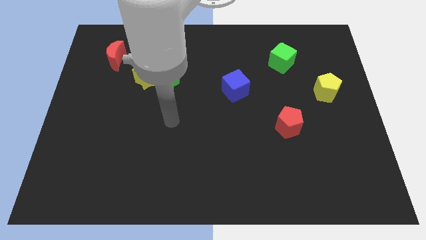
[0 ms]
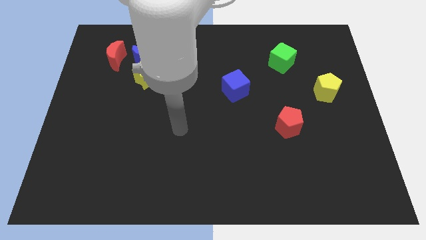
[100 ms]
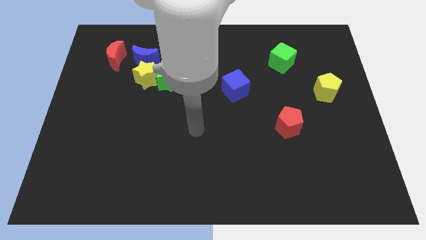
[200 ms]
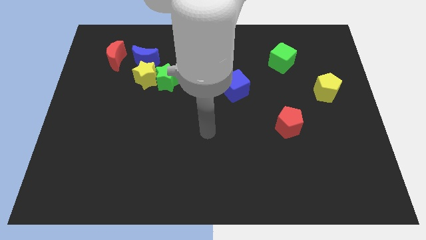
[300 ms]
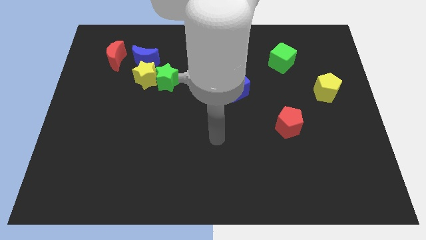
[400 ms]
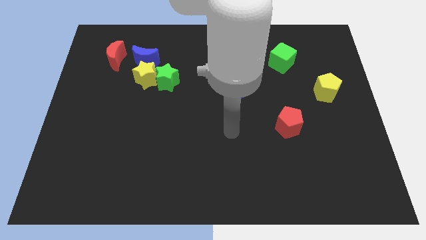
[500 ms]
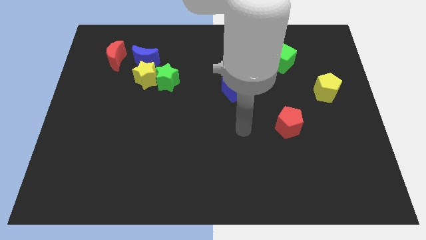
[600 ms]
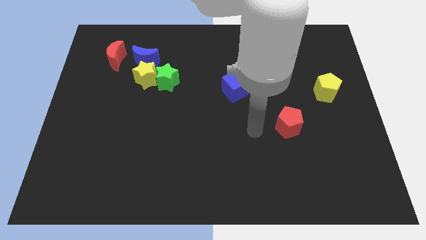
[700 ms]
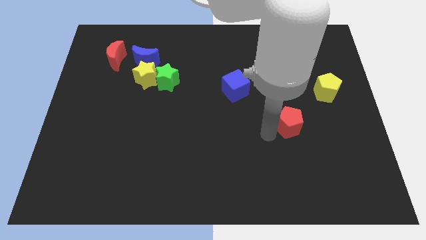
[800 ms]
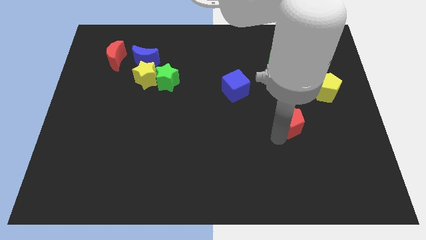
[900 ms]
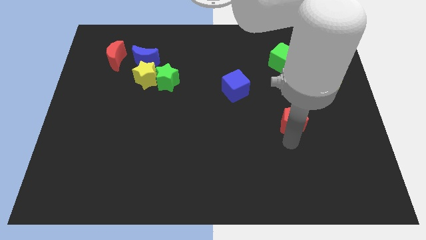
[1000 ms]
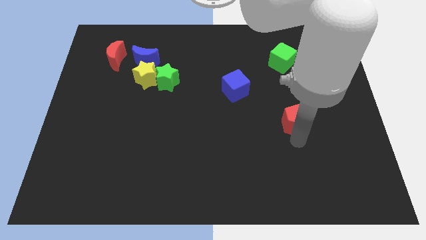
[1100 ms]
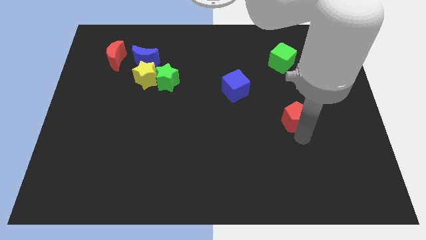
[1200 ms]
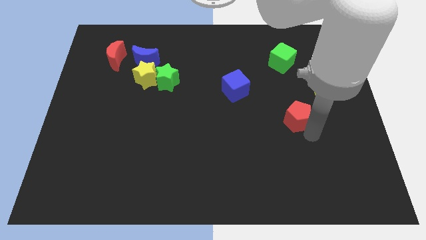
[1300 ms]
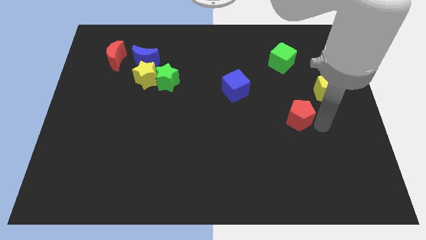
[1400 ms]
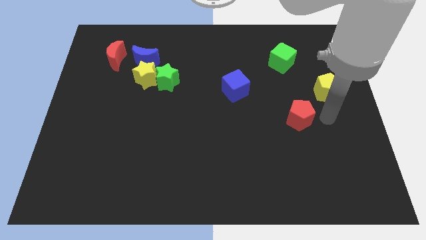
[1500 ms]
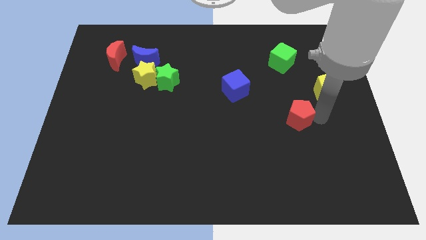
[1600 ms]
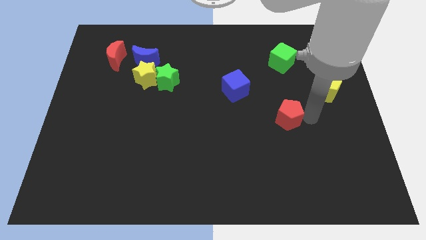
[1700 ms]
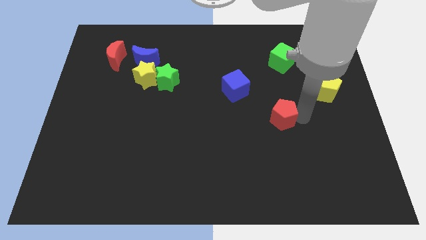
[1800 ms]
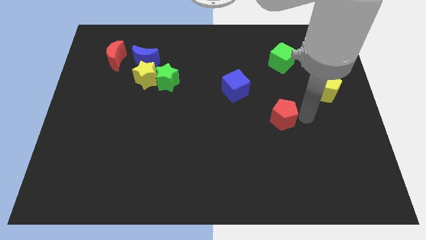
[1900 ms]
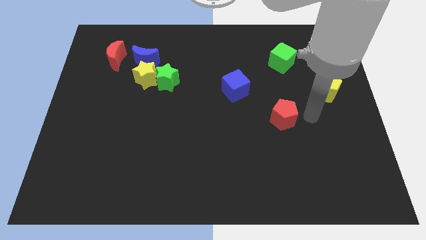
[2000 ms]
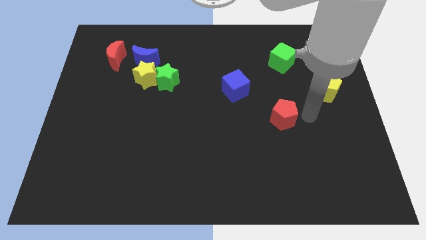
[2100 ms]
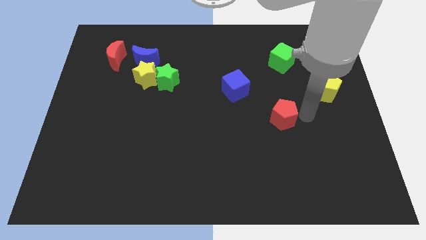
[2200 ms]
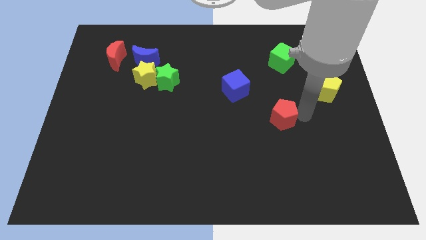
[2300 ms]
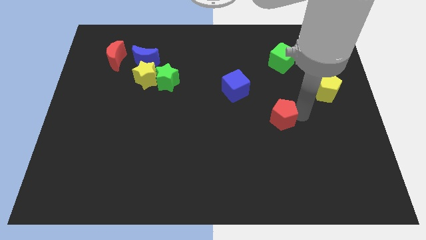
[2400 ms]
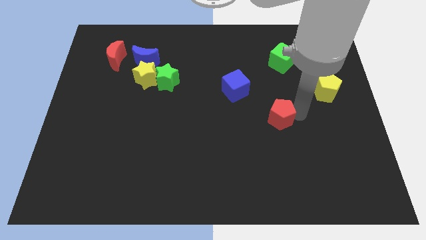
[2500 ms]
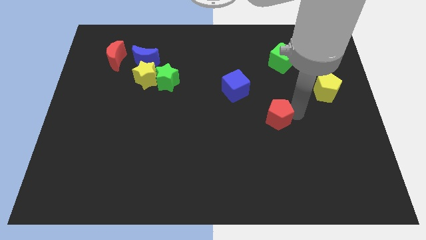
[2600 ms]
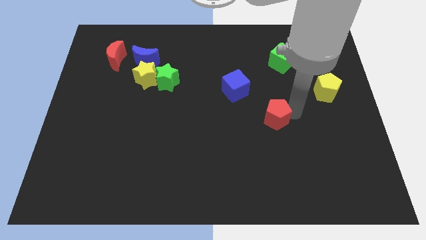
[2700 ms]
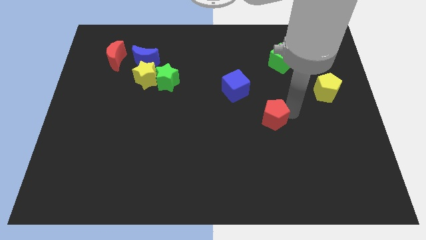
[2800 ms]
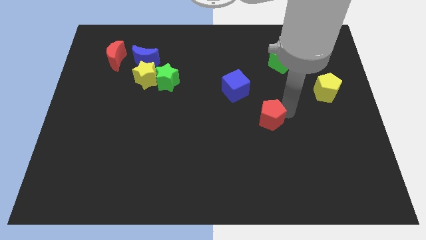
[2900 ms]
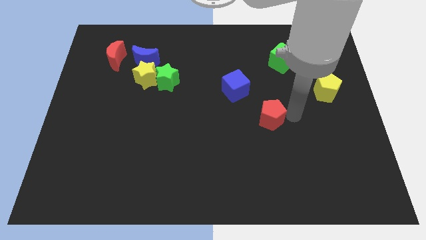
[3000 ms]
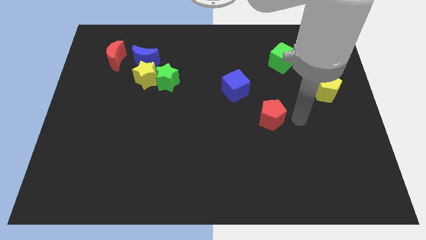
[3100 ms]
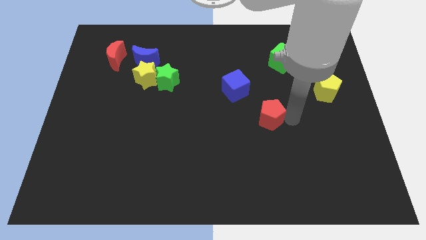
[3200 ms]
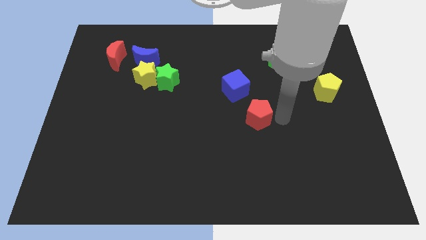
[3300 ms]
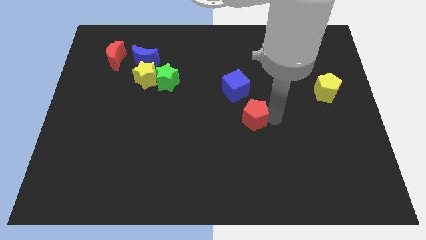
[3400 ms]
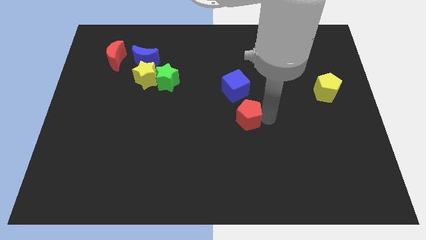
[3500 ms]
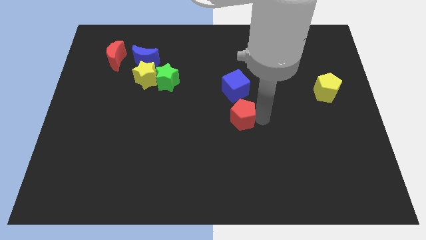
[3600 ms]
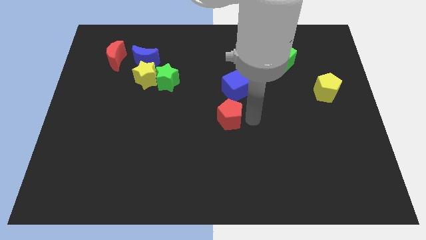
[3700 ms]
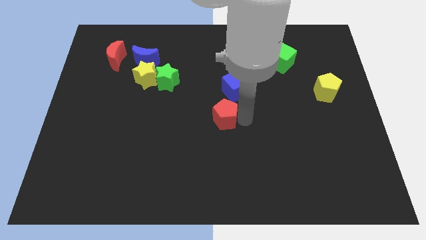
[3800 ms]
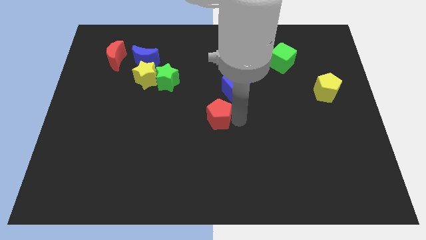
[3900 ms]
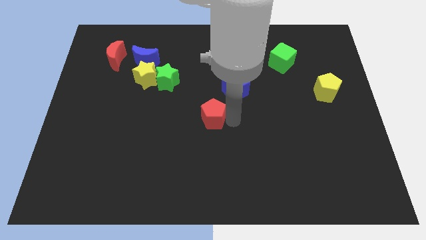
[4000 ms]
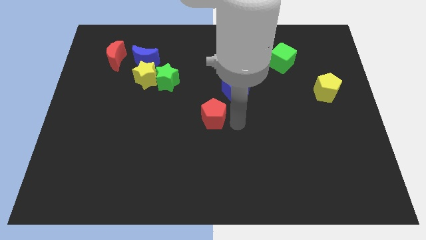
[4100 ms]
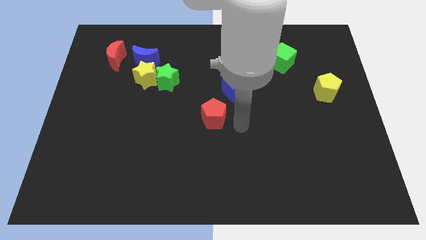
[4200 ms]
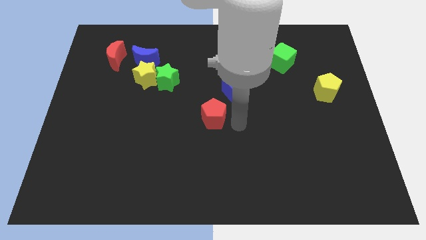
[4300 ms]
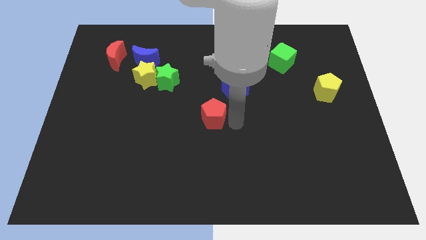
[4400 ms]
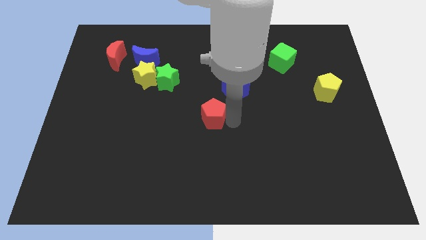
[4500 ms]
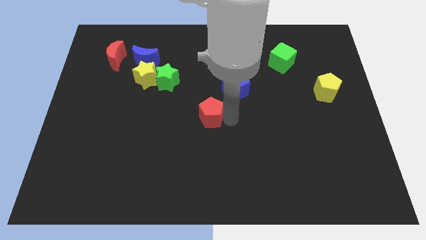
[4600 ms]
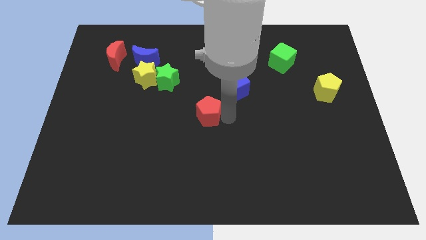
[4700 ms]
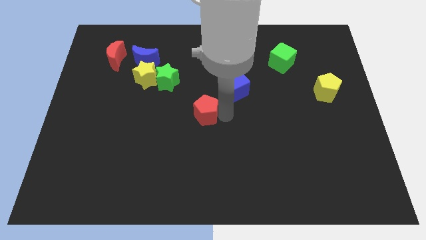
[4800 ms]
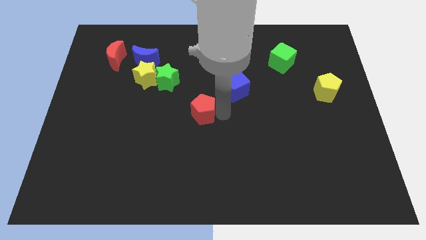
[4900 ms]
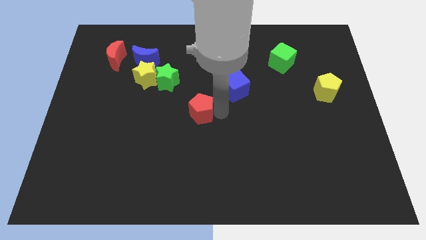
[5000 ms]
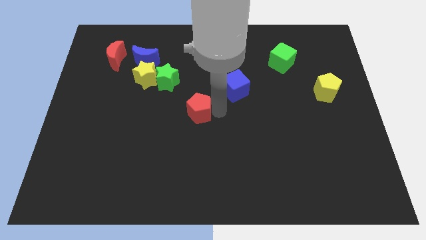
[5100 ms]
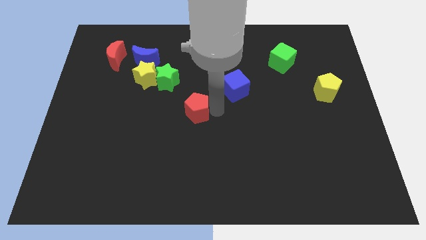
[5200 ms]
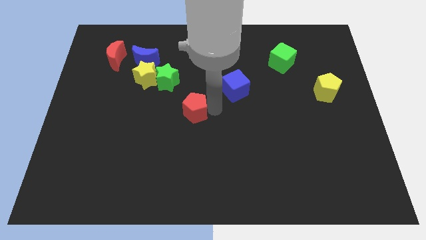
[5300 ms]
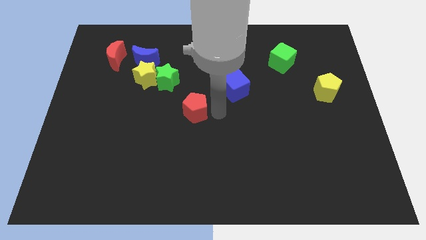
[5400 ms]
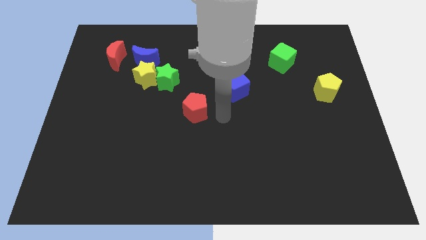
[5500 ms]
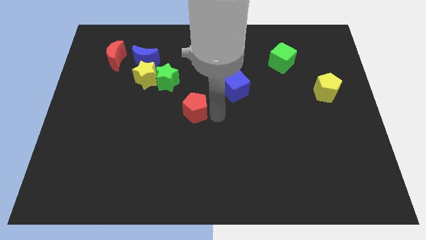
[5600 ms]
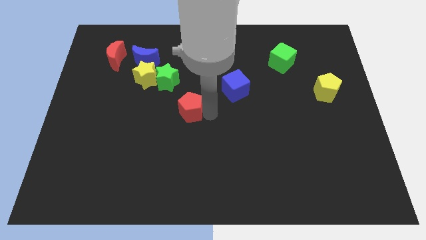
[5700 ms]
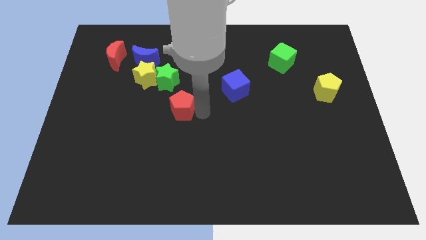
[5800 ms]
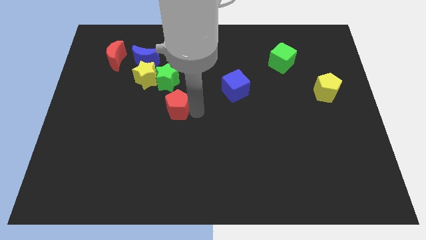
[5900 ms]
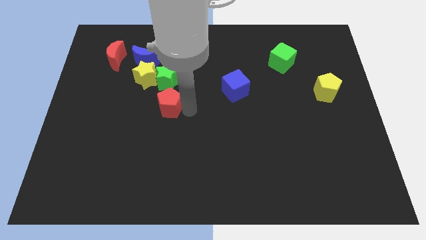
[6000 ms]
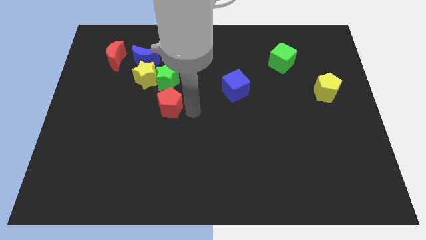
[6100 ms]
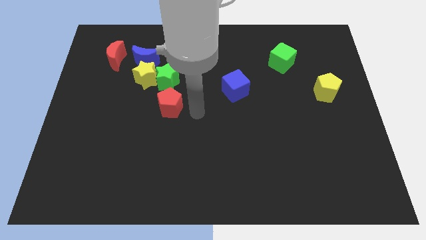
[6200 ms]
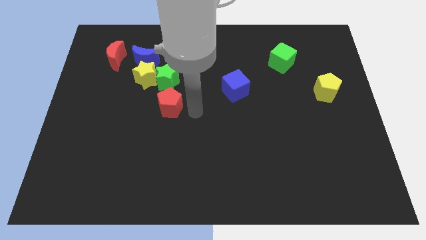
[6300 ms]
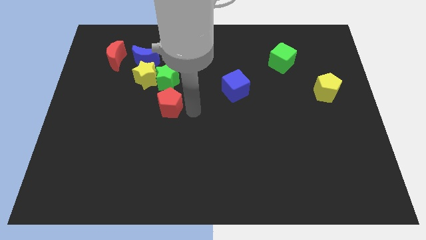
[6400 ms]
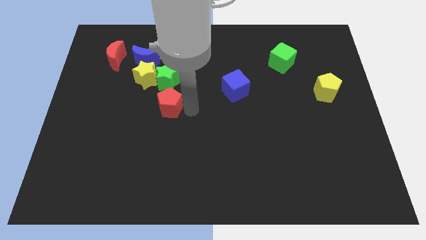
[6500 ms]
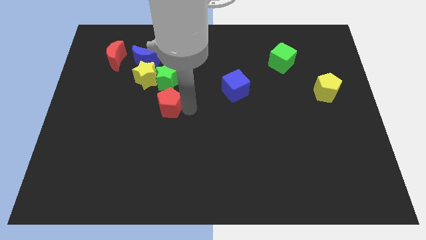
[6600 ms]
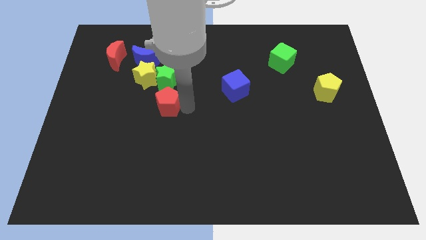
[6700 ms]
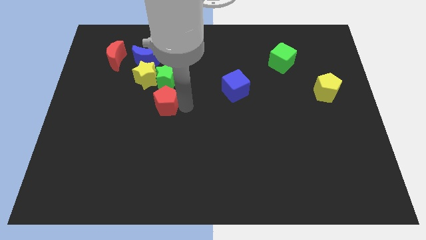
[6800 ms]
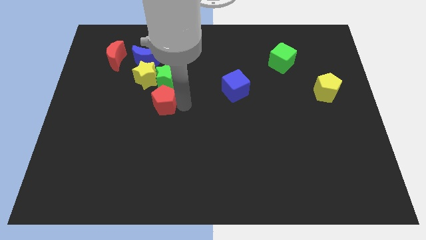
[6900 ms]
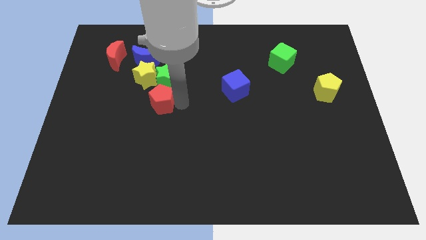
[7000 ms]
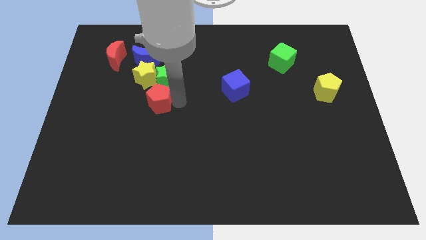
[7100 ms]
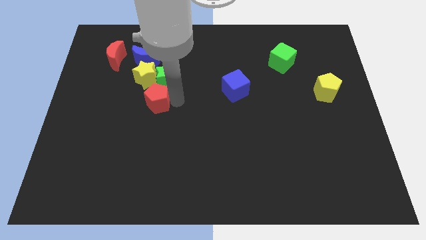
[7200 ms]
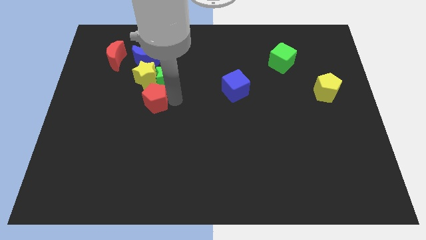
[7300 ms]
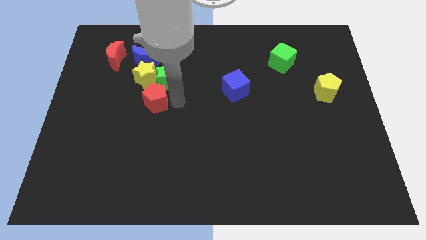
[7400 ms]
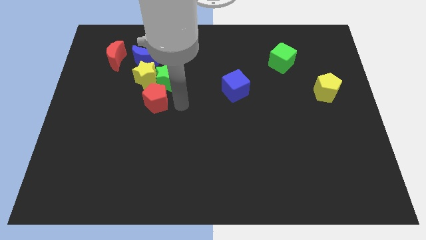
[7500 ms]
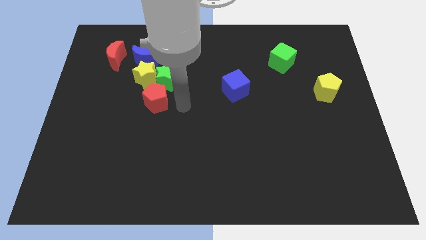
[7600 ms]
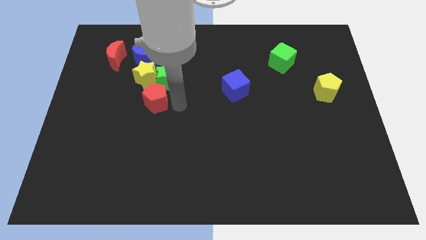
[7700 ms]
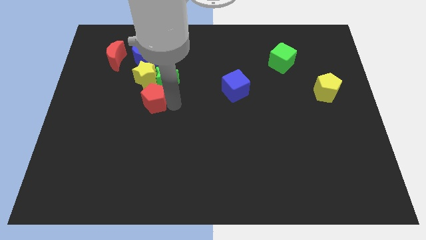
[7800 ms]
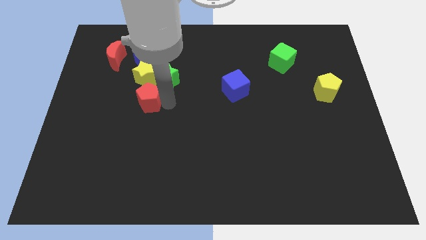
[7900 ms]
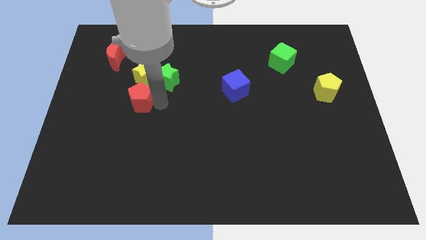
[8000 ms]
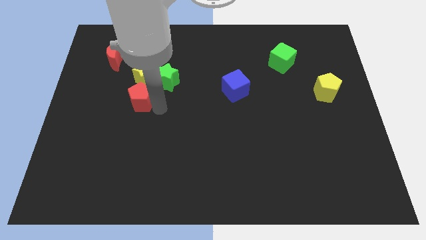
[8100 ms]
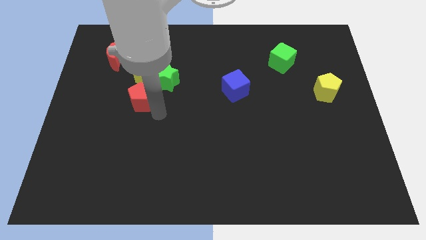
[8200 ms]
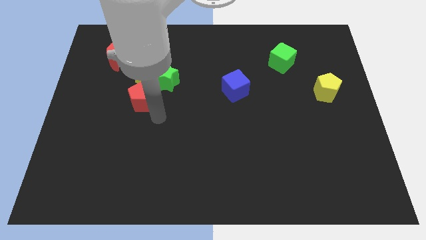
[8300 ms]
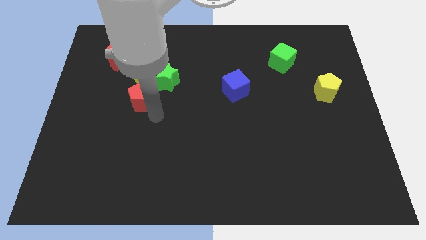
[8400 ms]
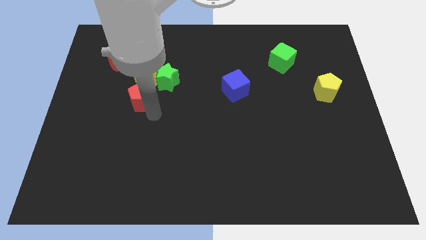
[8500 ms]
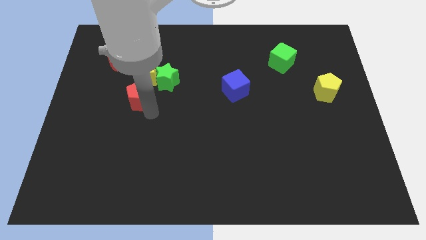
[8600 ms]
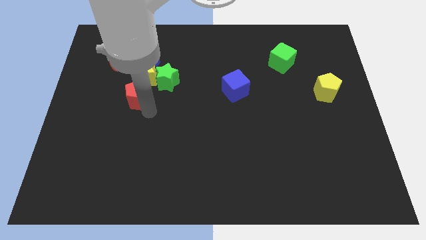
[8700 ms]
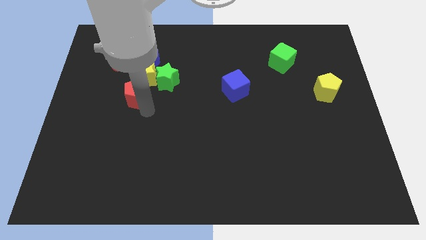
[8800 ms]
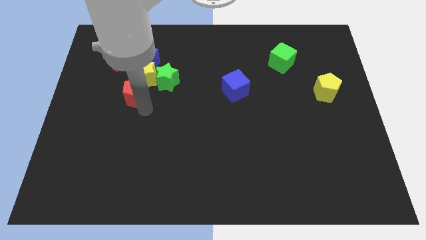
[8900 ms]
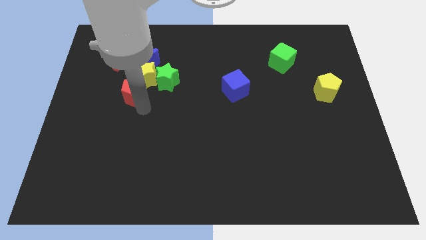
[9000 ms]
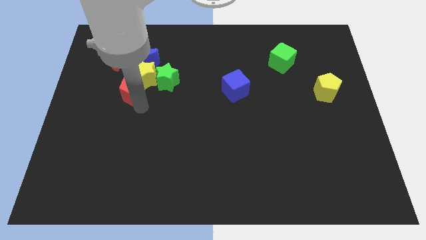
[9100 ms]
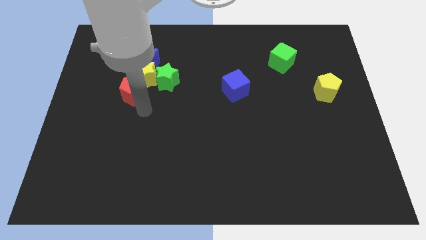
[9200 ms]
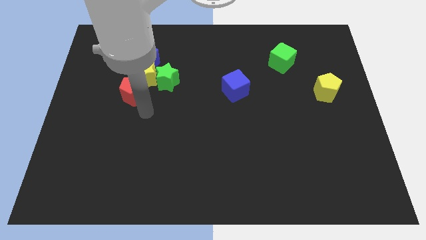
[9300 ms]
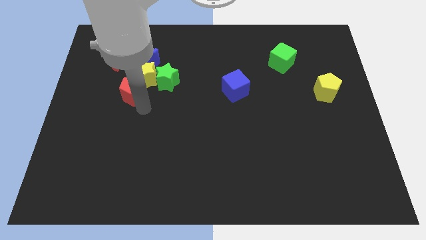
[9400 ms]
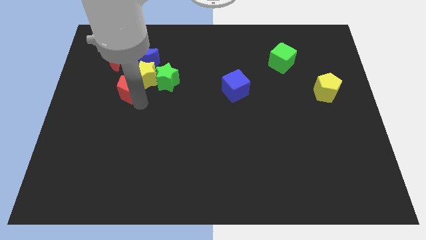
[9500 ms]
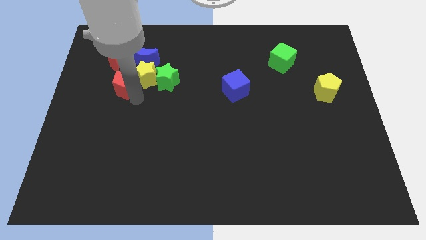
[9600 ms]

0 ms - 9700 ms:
put the red pentagon to the bottom left side of the blue moon
